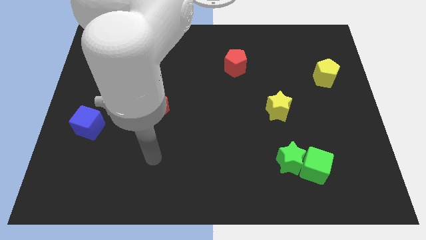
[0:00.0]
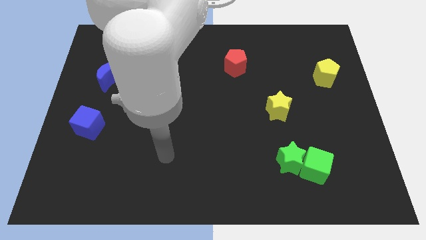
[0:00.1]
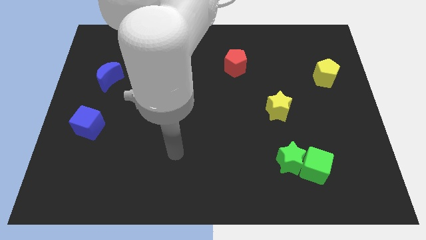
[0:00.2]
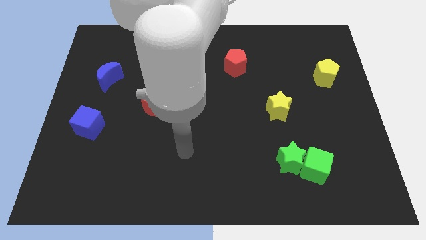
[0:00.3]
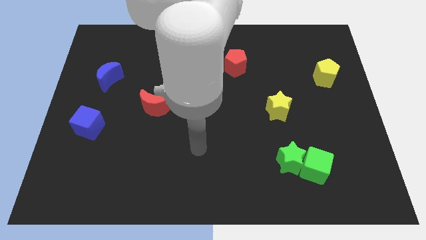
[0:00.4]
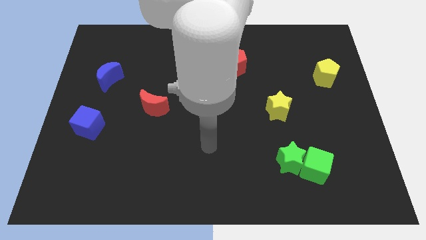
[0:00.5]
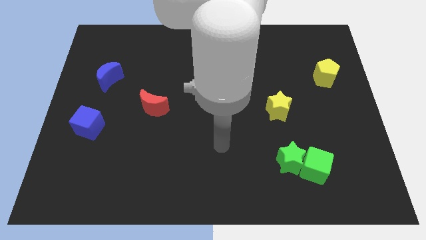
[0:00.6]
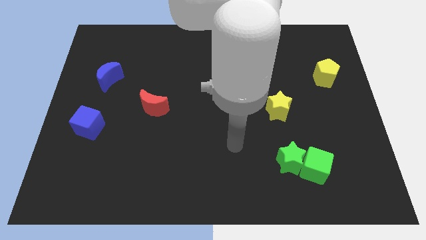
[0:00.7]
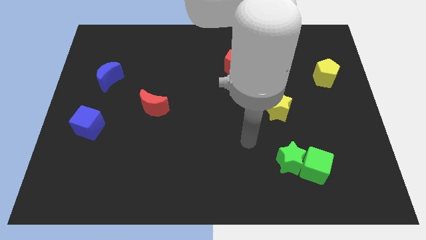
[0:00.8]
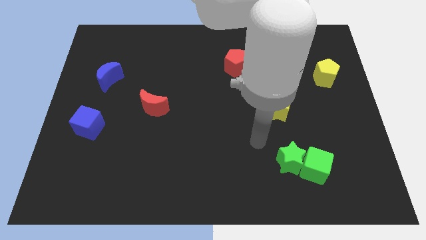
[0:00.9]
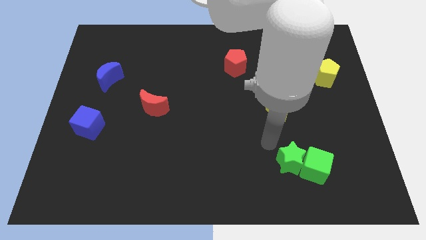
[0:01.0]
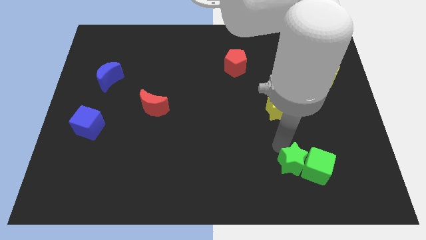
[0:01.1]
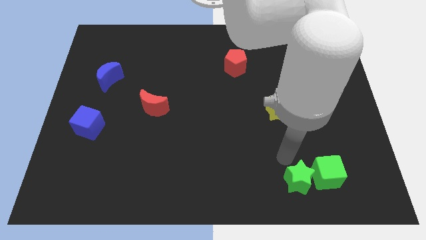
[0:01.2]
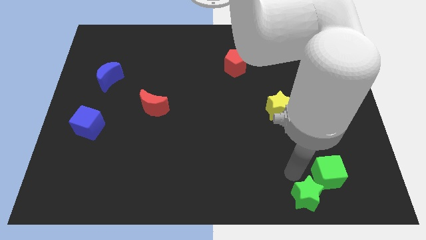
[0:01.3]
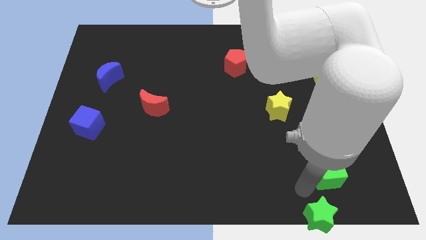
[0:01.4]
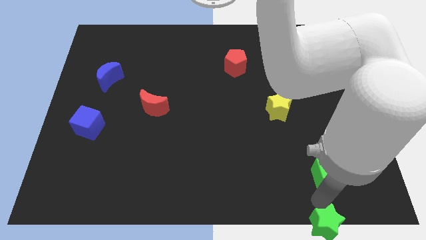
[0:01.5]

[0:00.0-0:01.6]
pull the green cube apart from the green star

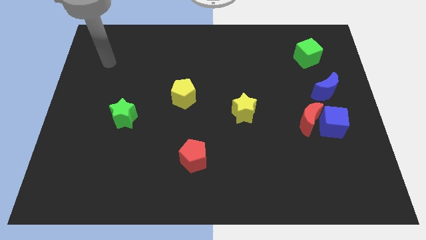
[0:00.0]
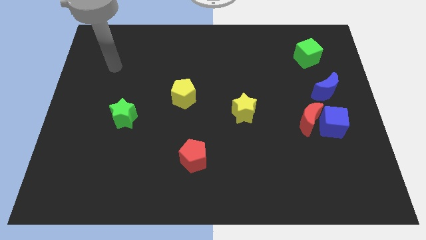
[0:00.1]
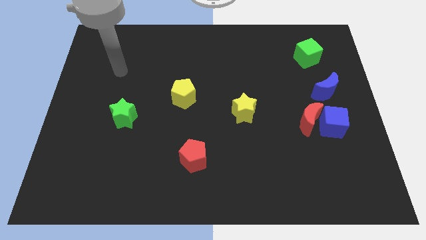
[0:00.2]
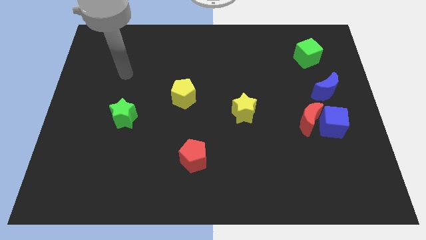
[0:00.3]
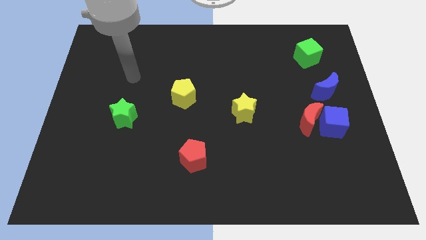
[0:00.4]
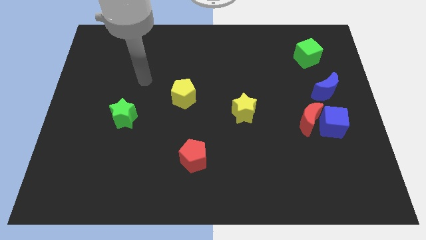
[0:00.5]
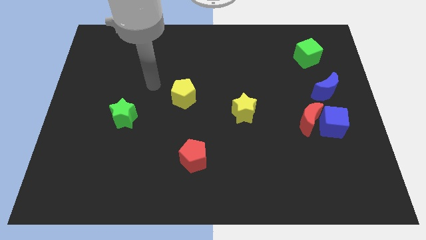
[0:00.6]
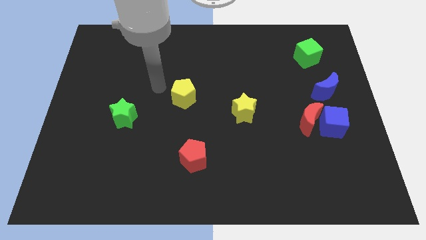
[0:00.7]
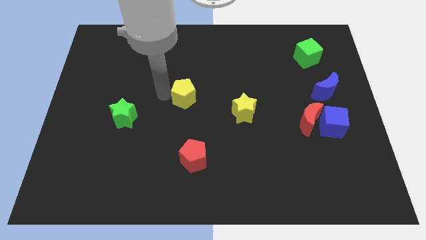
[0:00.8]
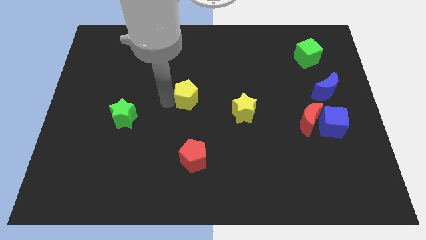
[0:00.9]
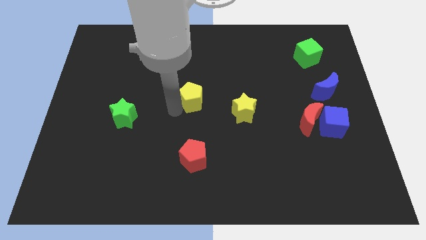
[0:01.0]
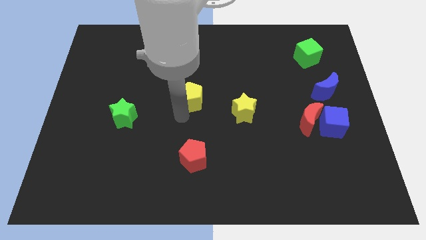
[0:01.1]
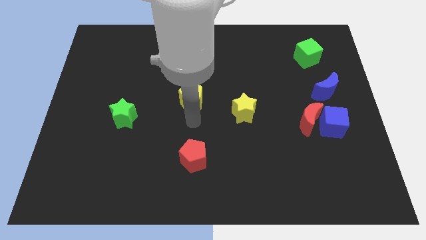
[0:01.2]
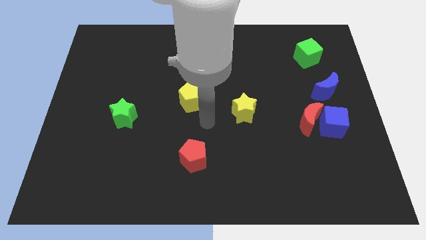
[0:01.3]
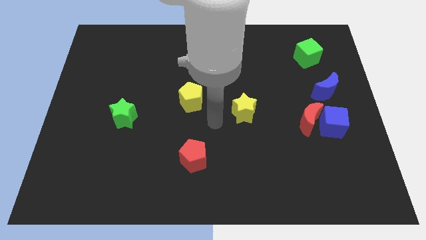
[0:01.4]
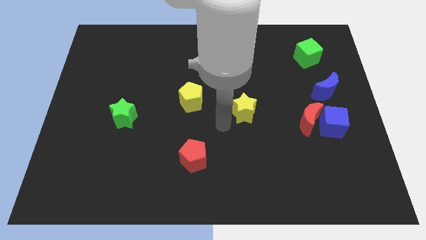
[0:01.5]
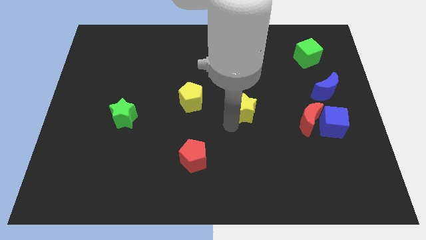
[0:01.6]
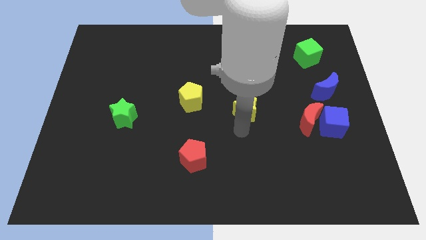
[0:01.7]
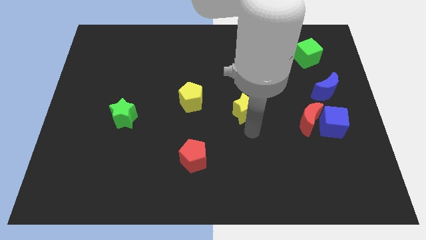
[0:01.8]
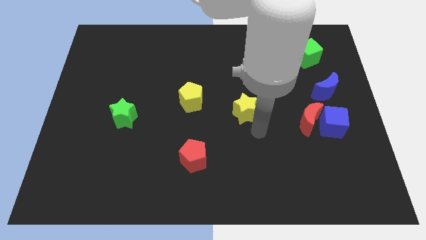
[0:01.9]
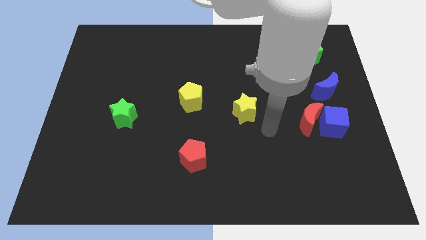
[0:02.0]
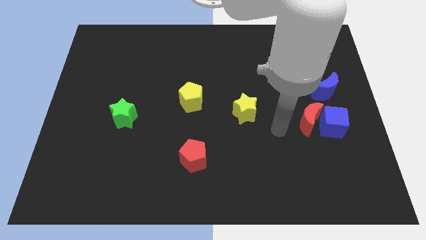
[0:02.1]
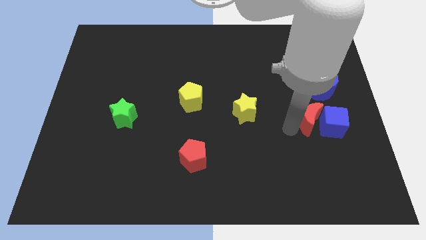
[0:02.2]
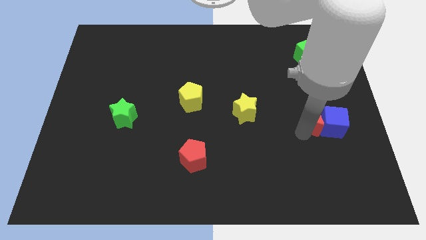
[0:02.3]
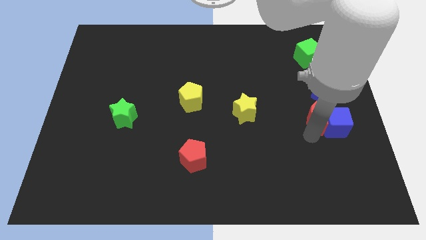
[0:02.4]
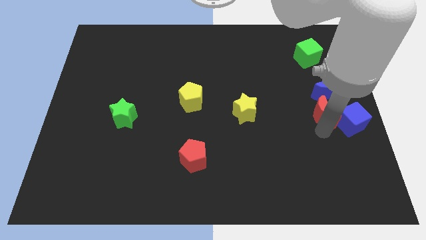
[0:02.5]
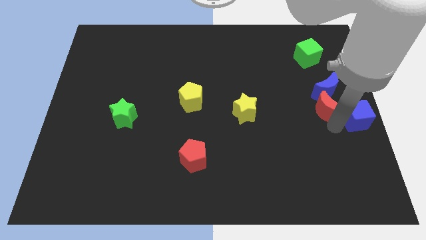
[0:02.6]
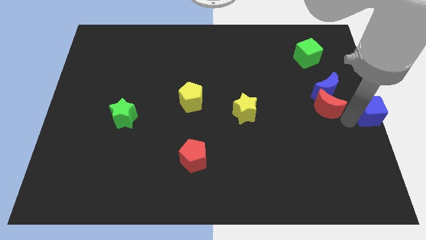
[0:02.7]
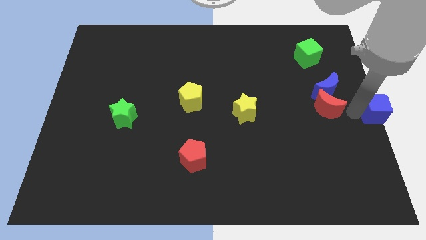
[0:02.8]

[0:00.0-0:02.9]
pull the red moon apart from the blue cube

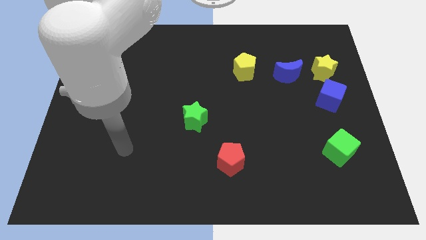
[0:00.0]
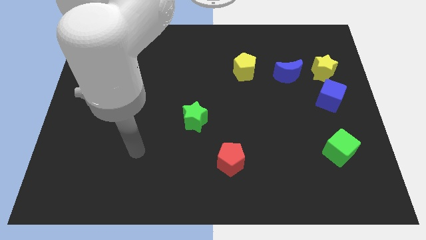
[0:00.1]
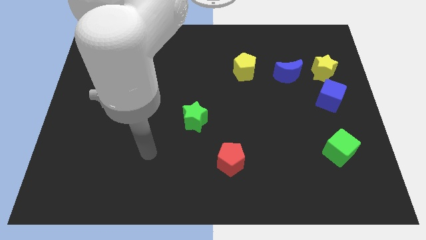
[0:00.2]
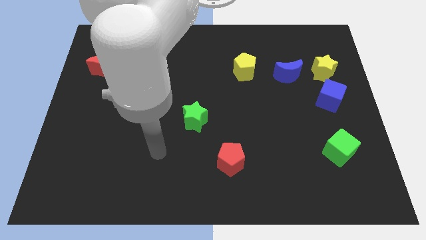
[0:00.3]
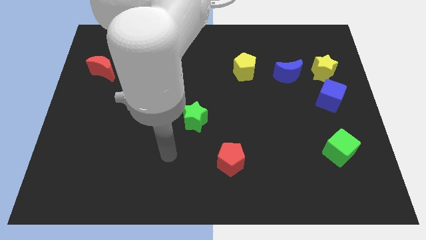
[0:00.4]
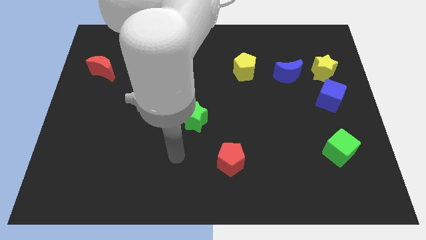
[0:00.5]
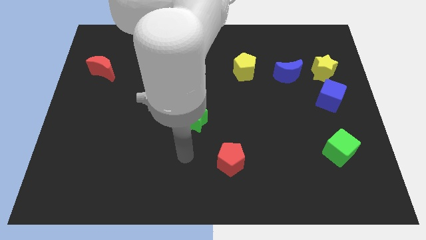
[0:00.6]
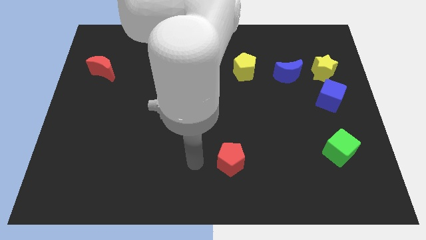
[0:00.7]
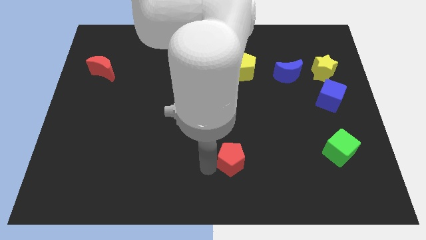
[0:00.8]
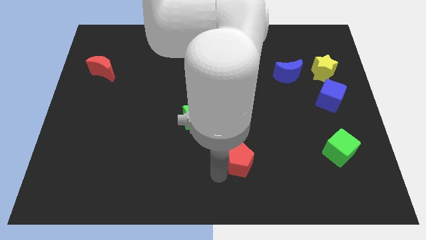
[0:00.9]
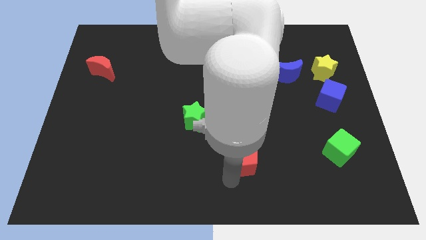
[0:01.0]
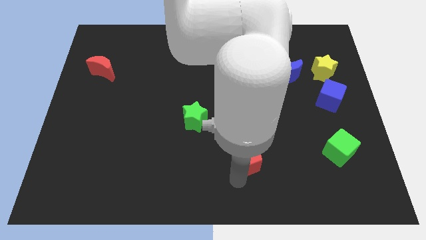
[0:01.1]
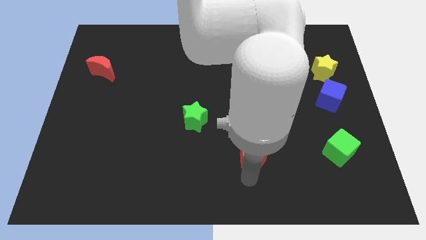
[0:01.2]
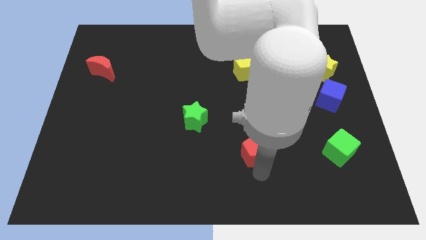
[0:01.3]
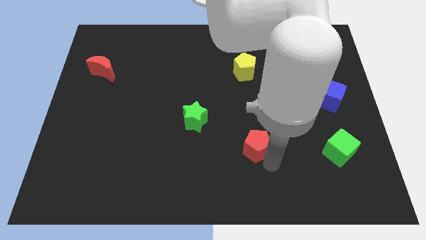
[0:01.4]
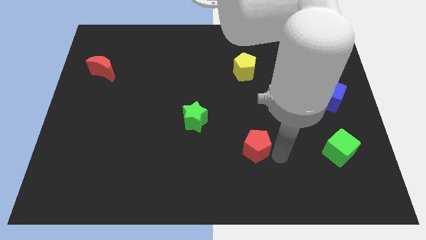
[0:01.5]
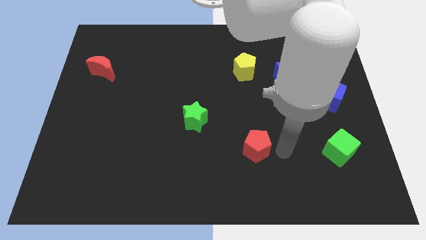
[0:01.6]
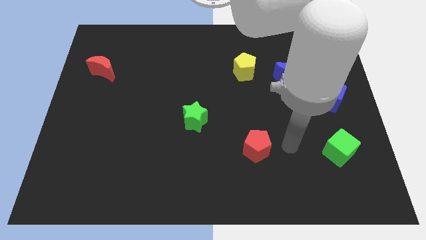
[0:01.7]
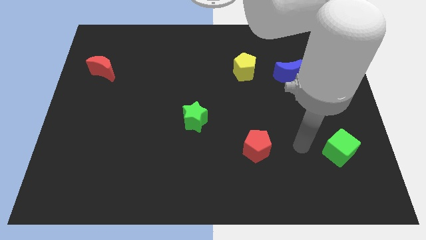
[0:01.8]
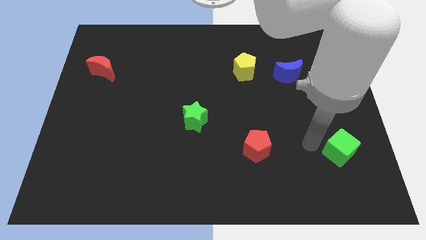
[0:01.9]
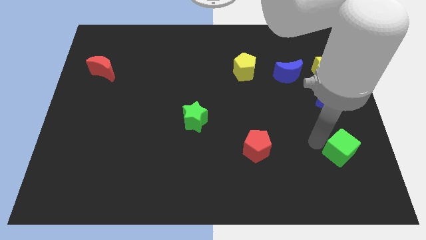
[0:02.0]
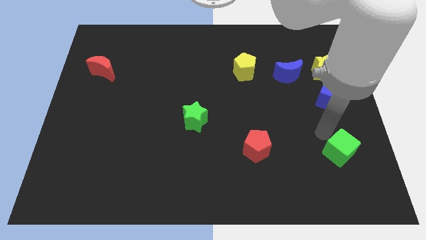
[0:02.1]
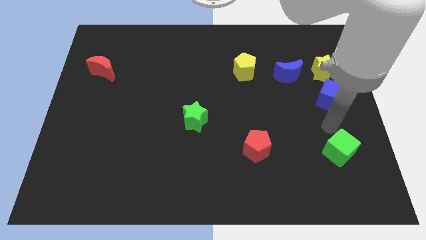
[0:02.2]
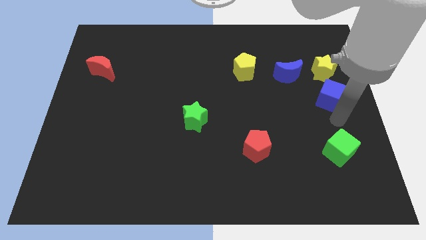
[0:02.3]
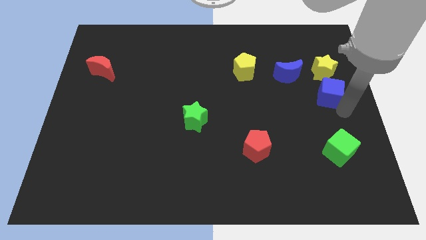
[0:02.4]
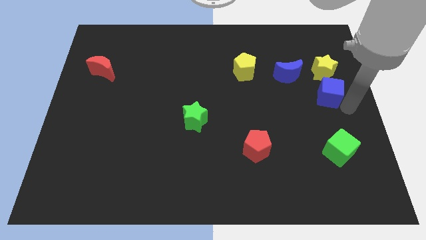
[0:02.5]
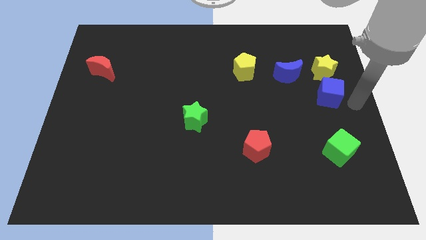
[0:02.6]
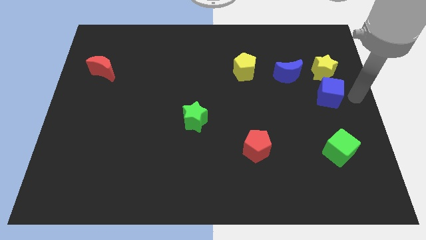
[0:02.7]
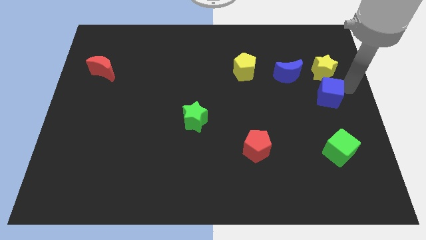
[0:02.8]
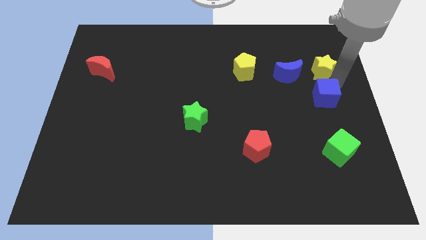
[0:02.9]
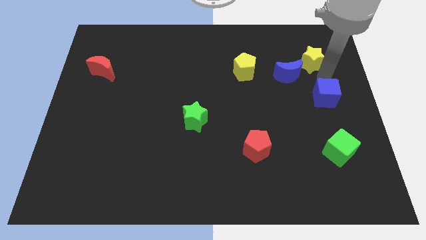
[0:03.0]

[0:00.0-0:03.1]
separate the blue cube from the yellow star

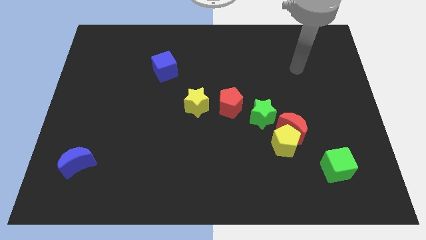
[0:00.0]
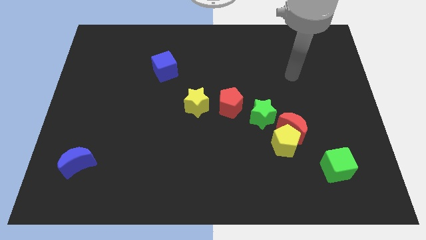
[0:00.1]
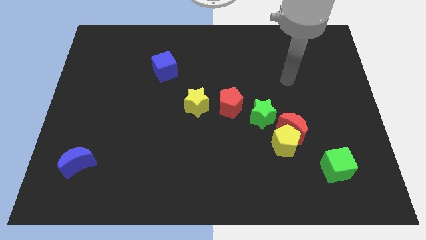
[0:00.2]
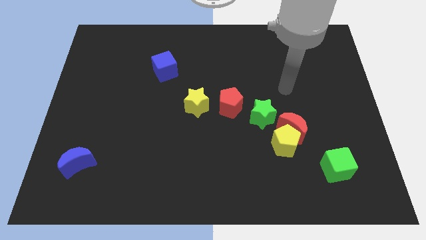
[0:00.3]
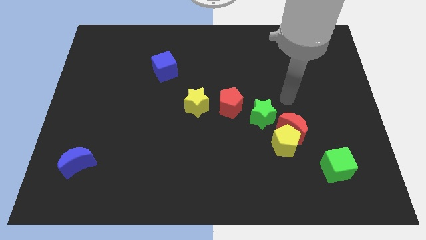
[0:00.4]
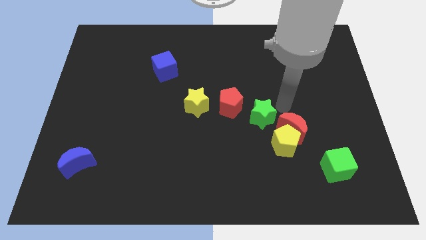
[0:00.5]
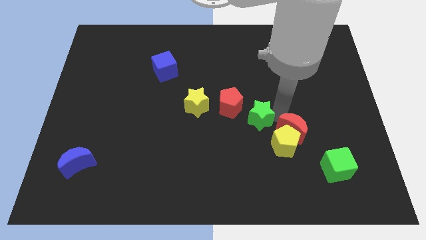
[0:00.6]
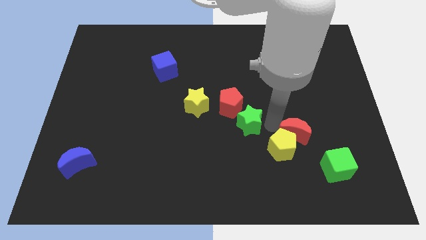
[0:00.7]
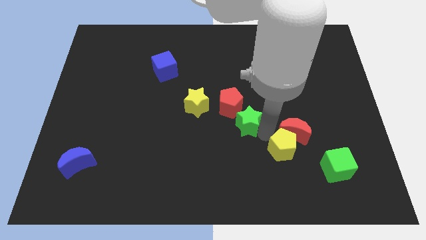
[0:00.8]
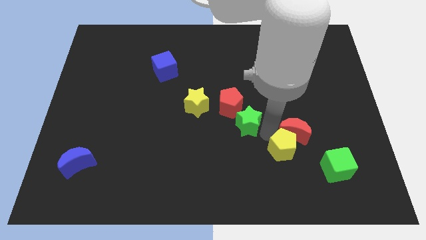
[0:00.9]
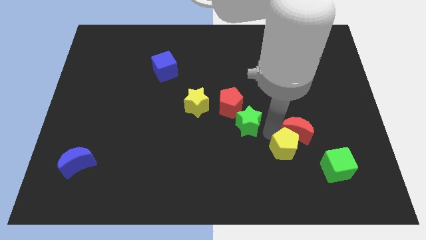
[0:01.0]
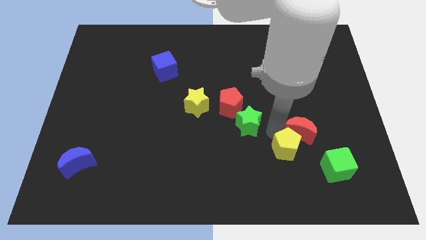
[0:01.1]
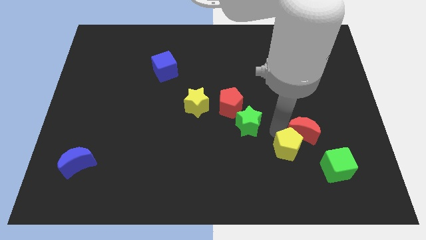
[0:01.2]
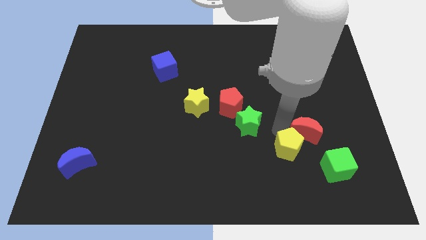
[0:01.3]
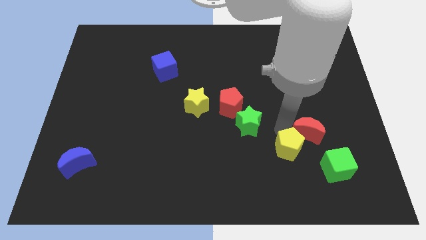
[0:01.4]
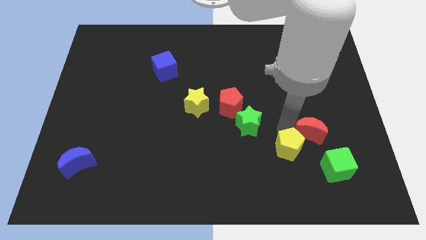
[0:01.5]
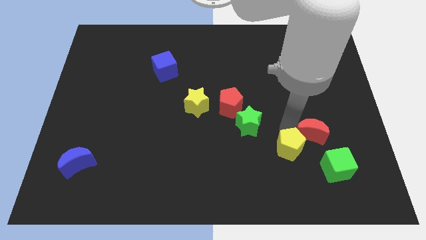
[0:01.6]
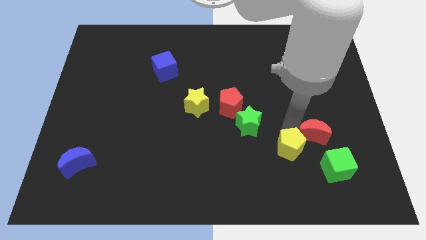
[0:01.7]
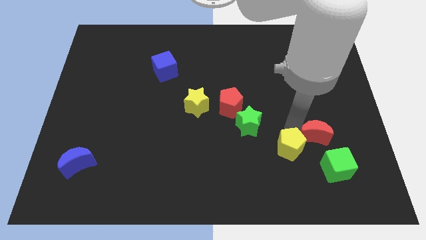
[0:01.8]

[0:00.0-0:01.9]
move the red moon away from the yellow pentagon and green star
